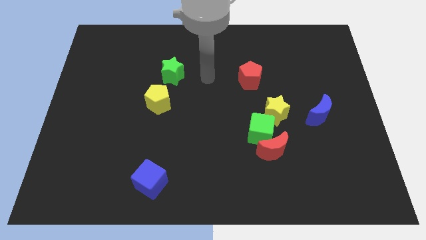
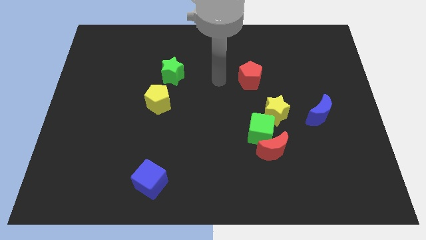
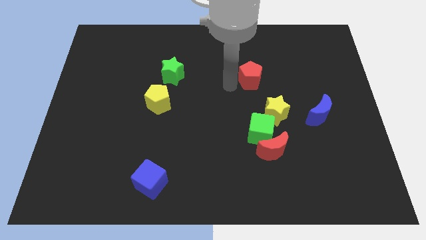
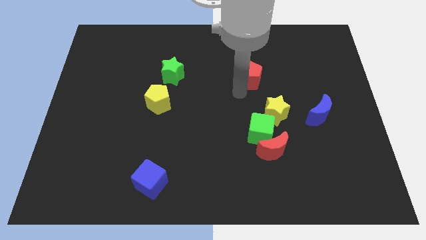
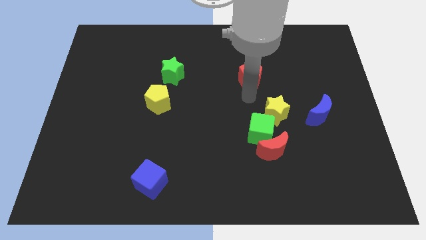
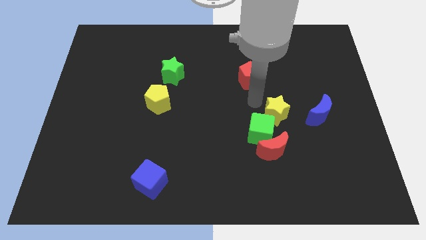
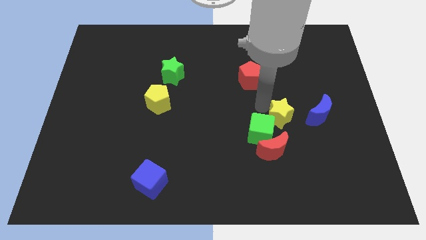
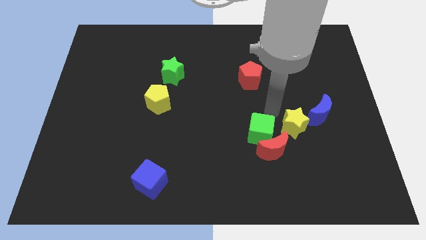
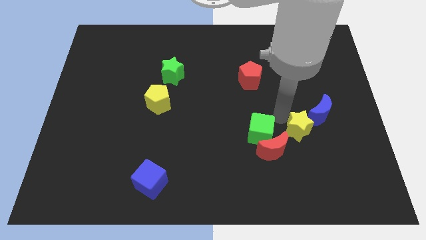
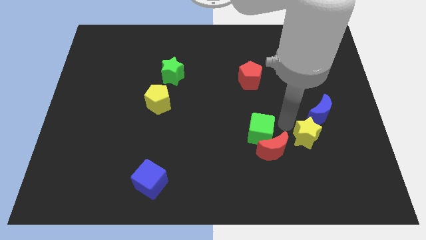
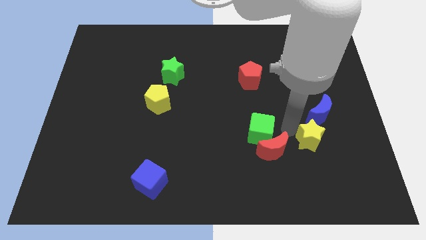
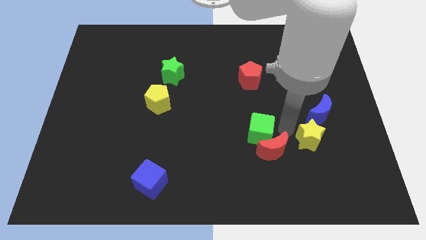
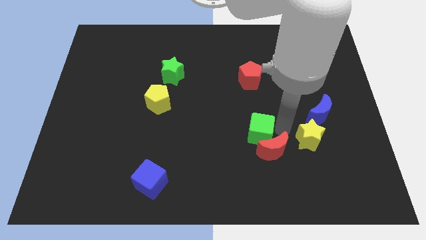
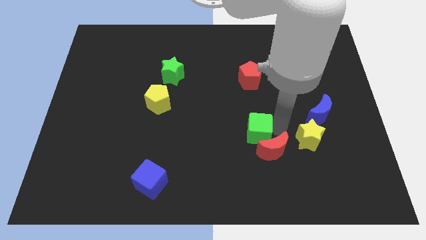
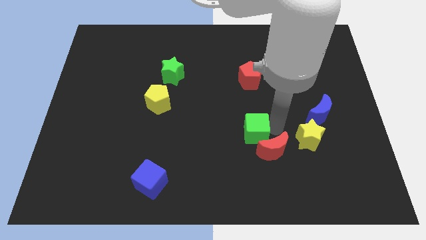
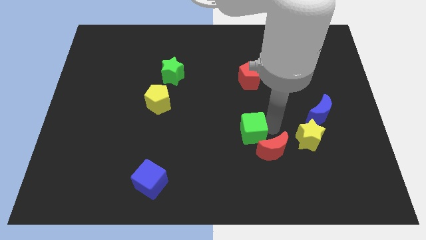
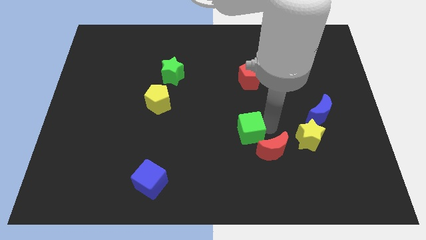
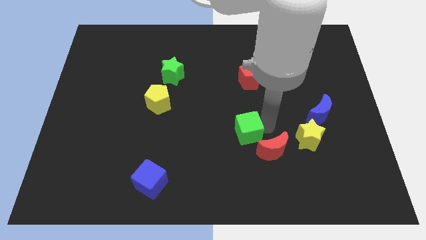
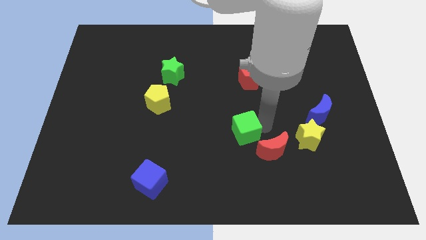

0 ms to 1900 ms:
pull the green cube apart from the red moon and yellow star

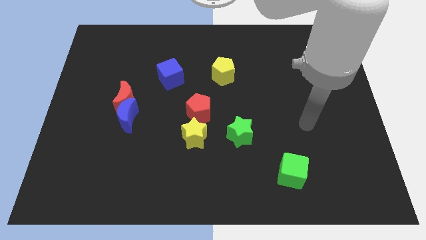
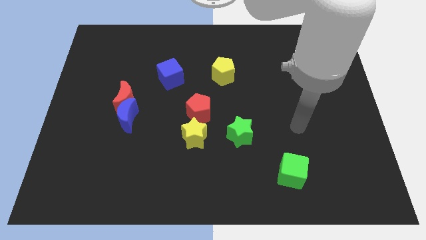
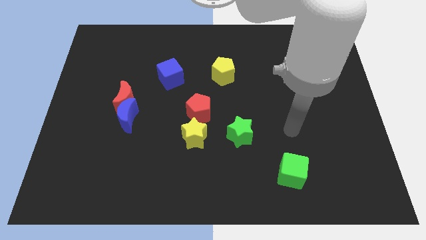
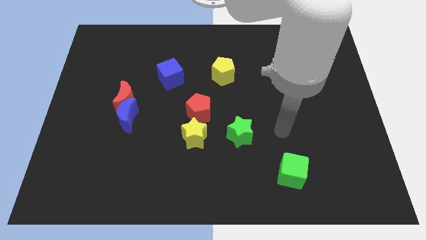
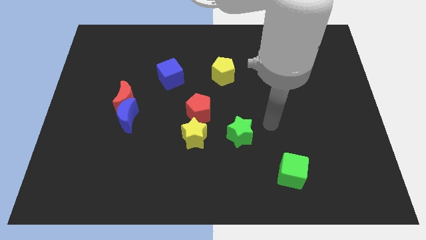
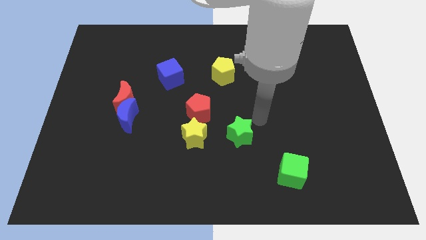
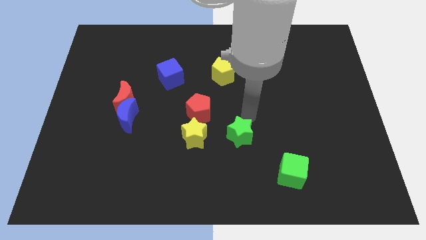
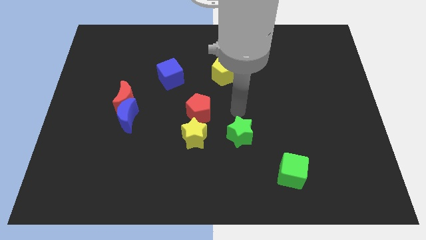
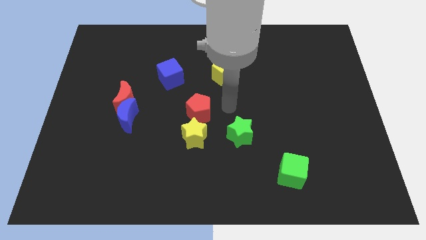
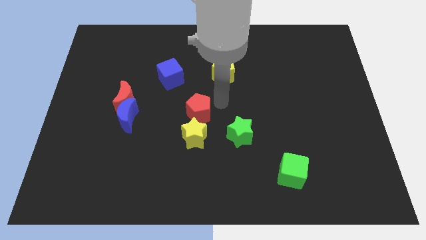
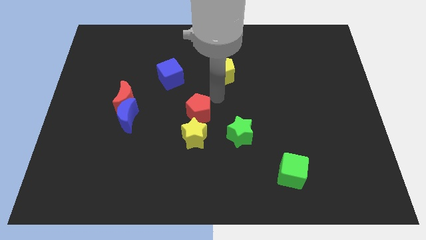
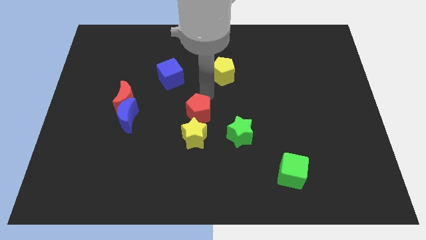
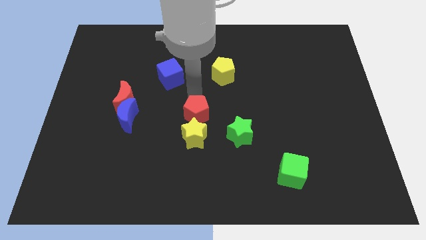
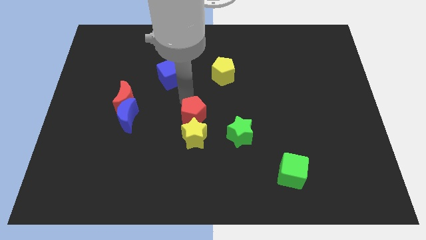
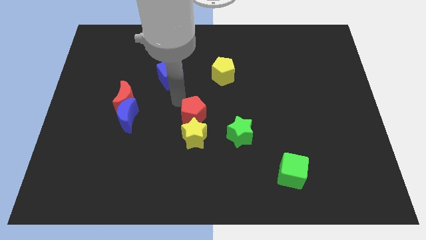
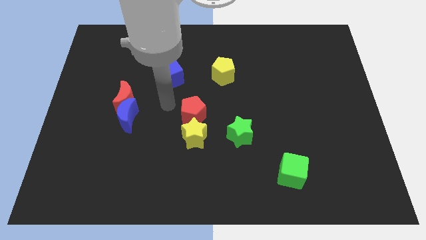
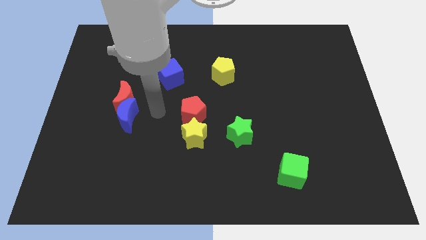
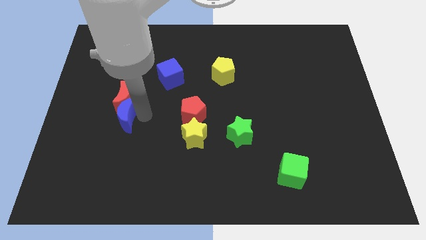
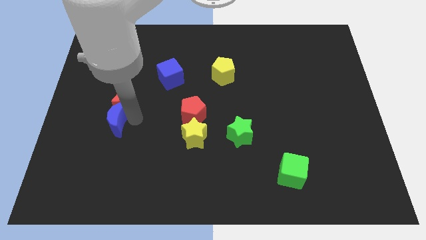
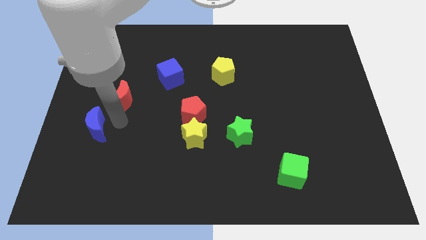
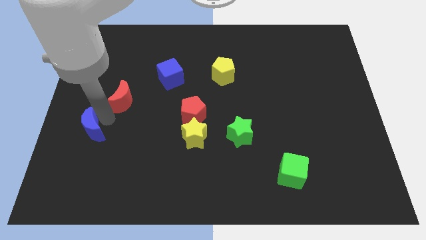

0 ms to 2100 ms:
pull the red moon apart from the blue moon

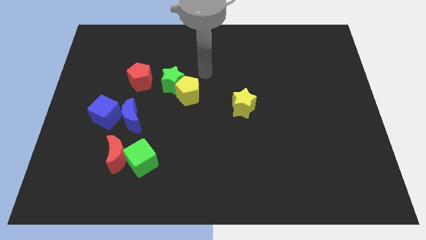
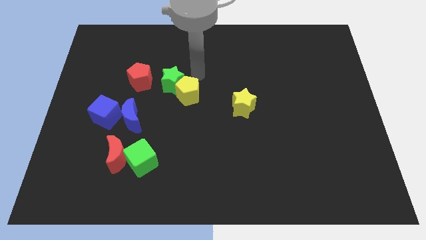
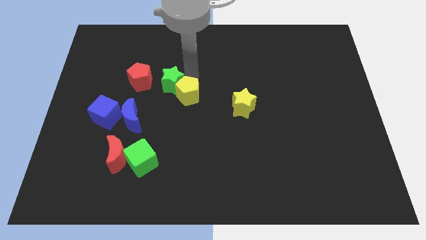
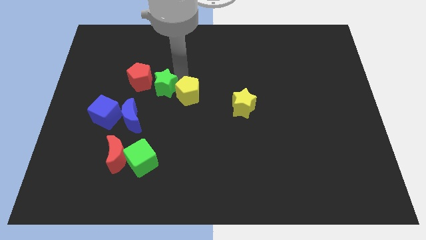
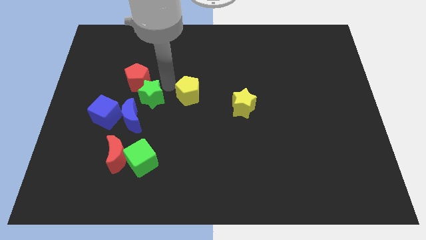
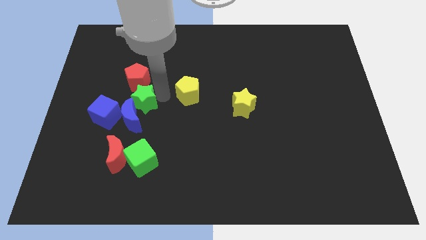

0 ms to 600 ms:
move the yellow pentagon away from the green star

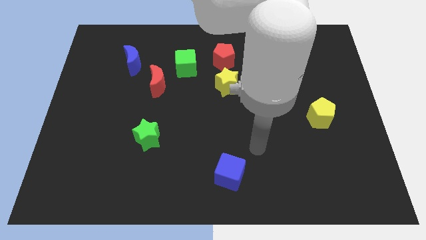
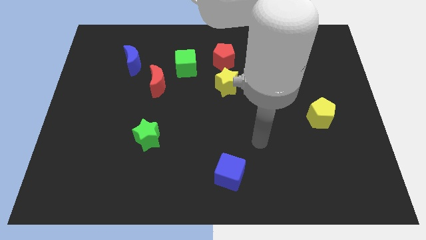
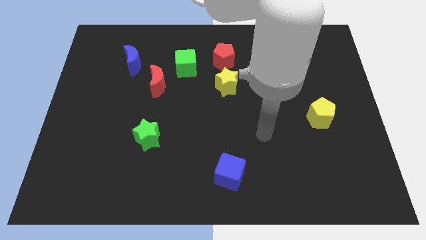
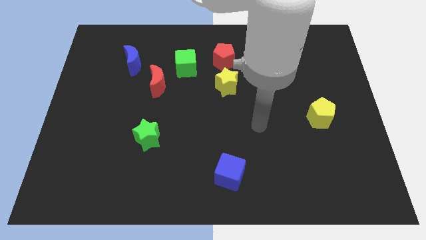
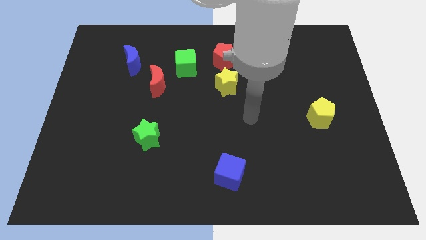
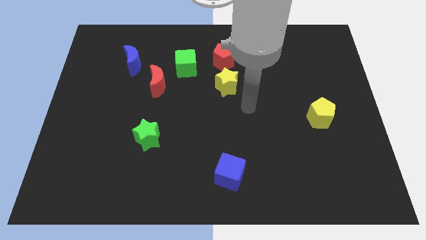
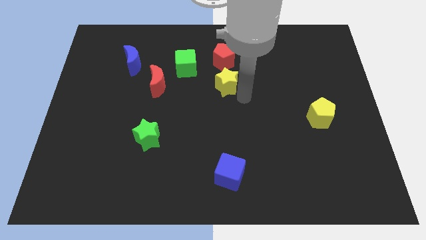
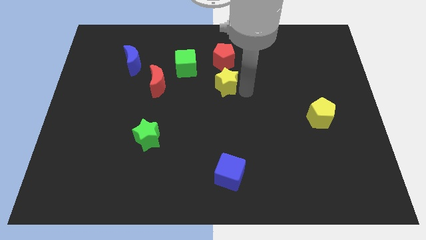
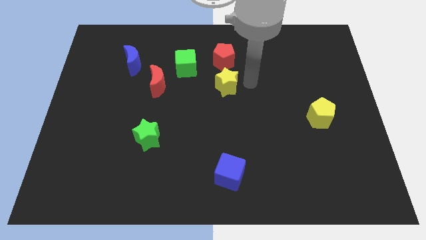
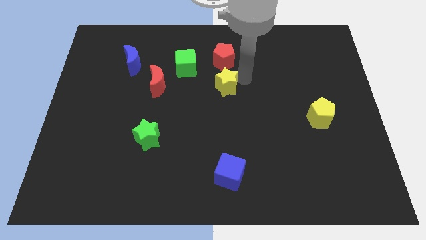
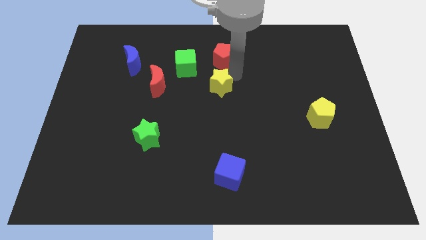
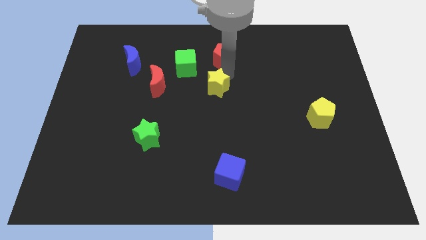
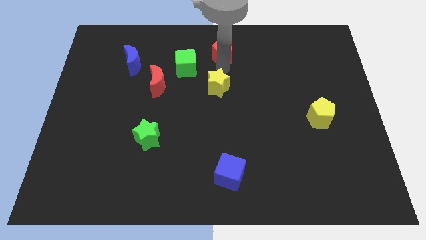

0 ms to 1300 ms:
pull the yellow star apart from the red pentagon

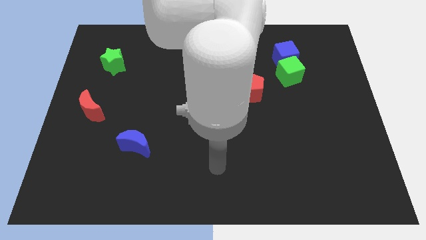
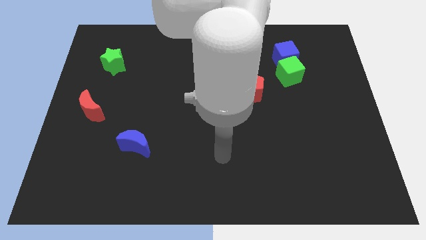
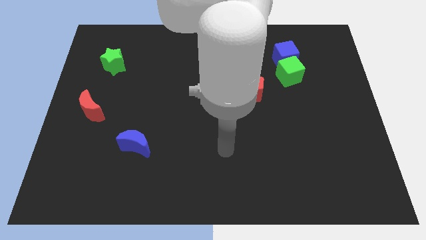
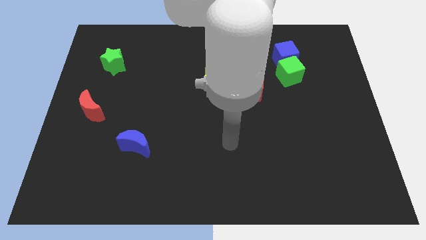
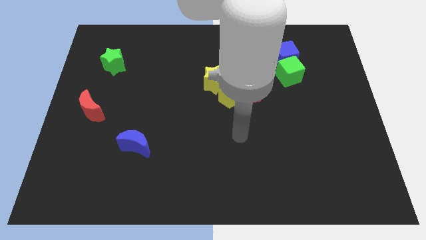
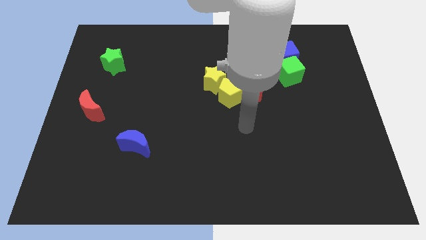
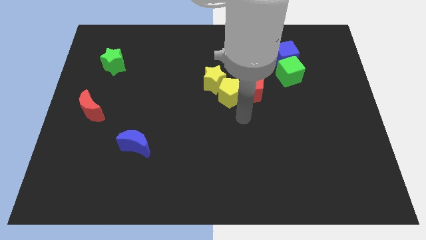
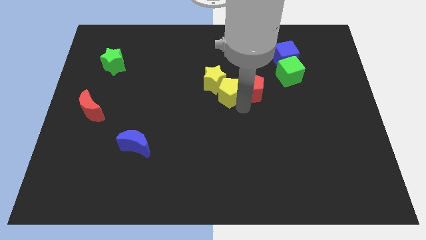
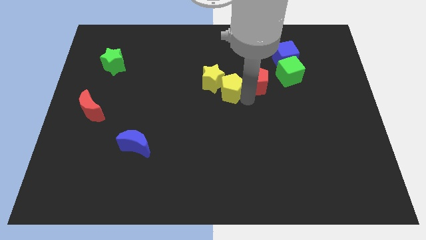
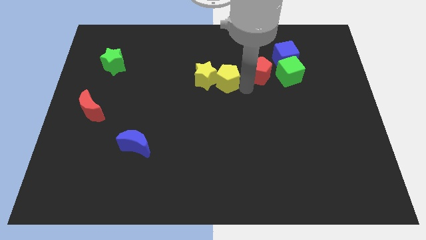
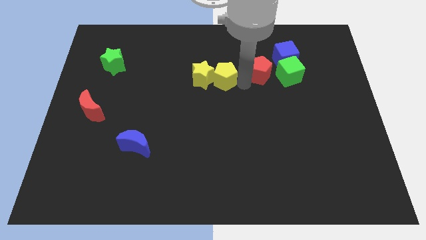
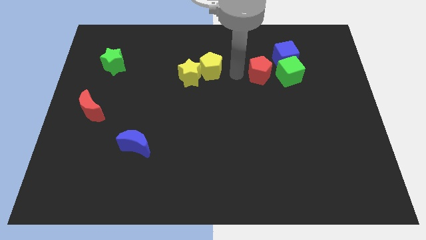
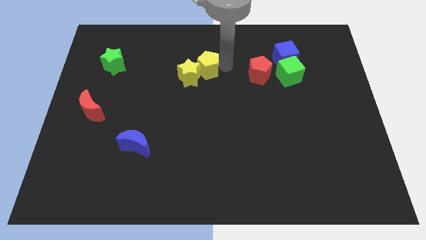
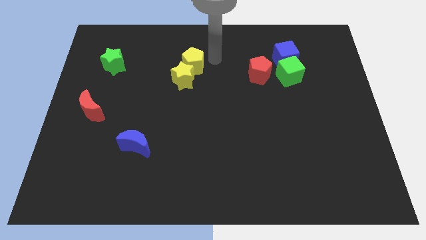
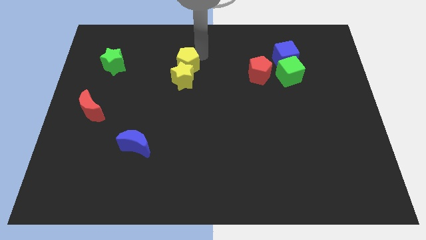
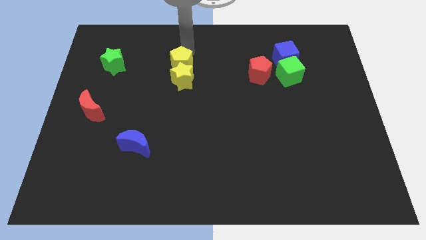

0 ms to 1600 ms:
move the yellow pentagon away from the red pentagon and yellow star

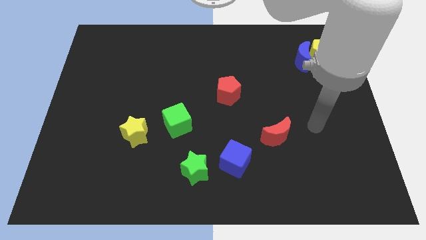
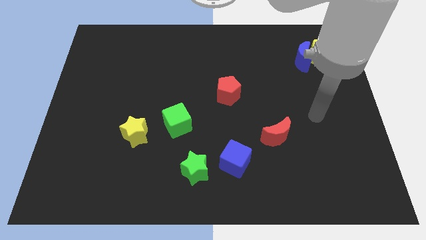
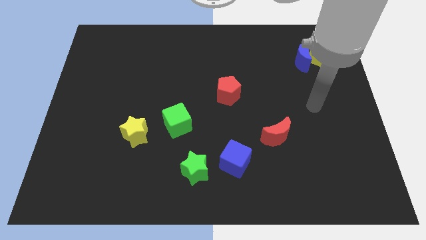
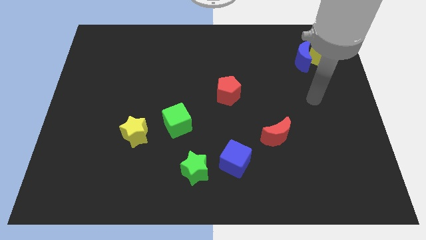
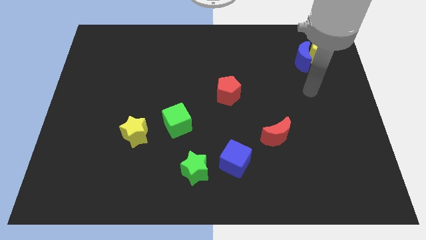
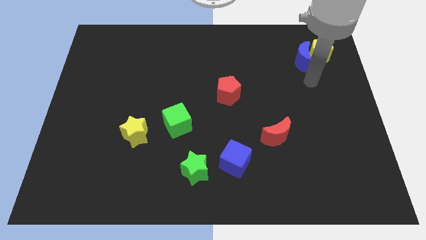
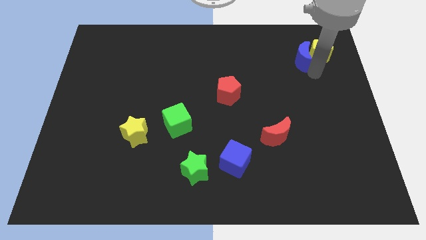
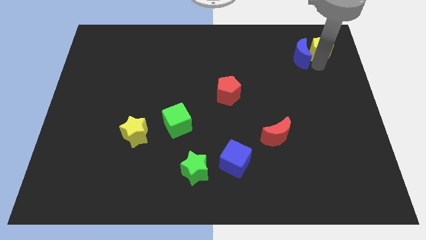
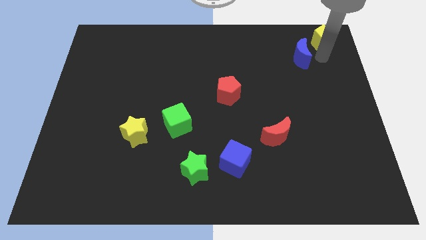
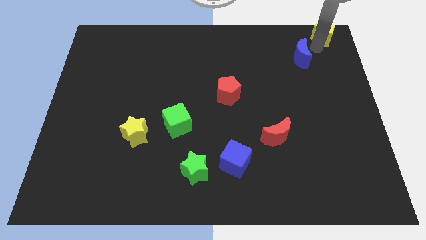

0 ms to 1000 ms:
pull the blue moon apart from the yellow pentagon

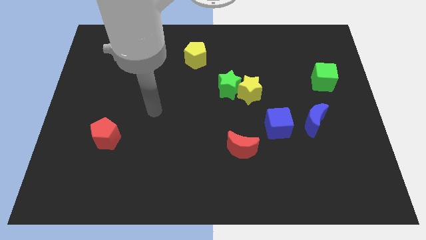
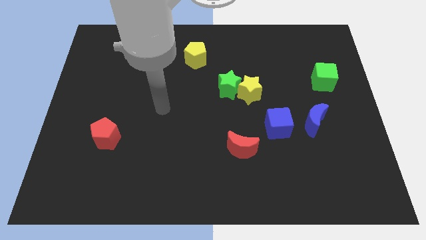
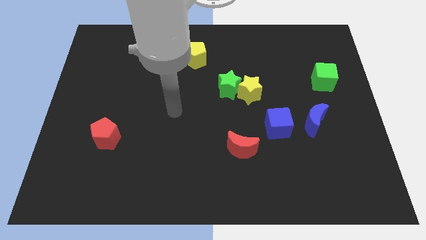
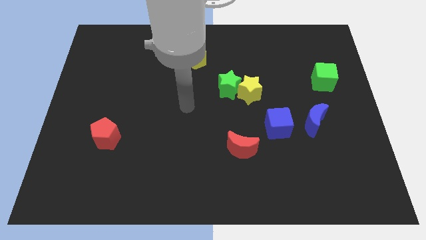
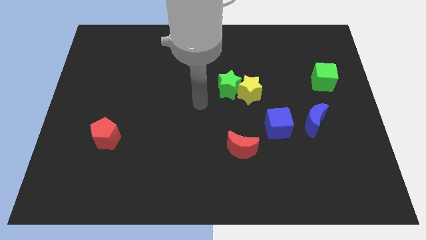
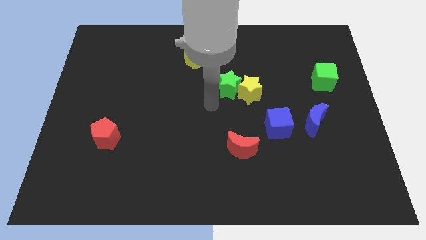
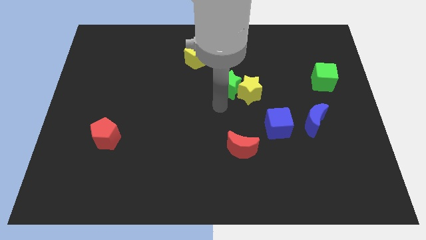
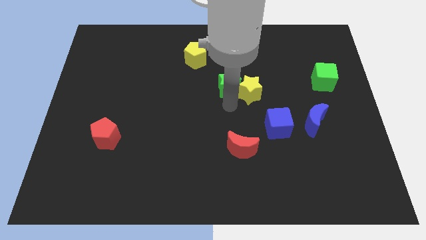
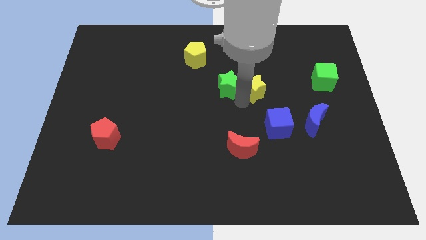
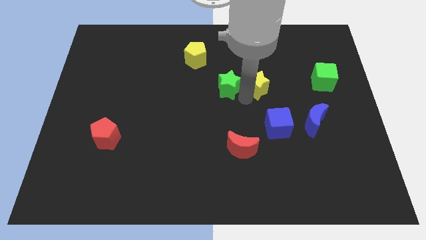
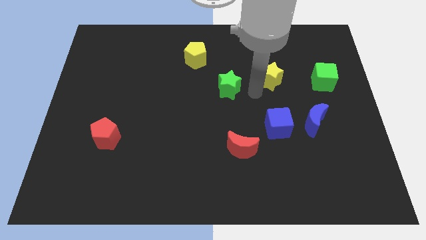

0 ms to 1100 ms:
separate the green star from the yellow star
